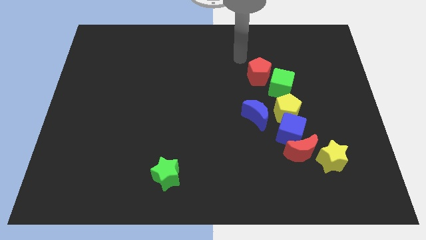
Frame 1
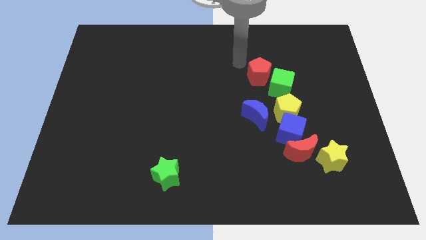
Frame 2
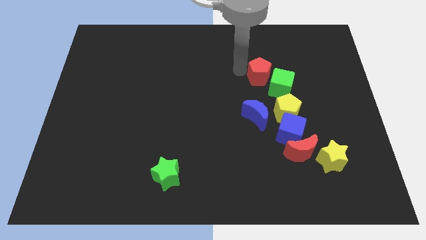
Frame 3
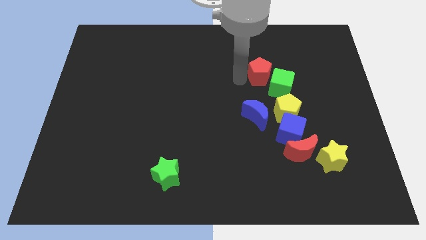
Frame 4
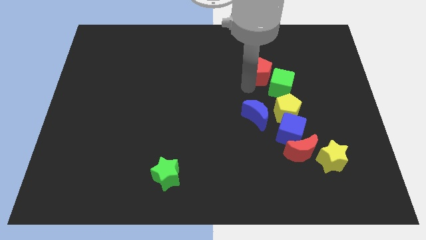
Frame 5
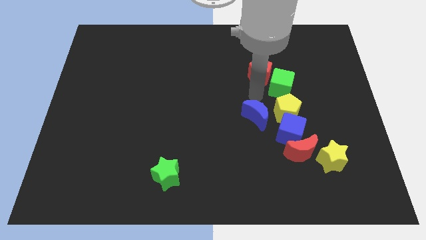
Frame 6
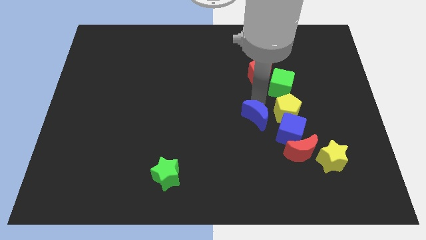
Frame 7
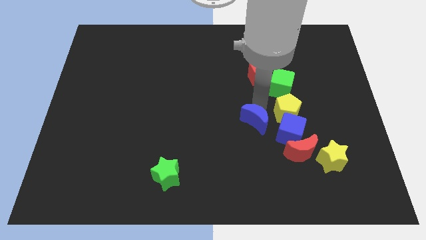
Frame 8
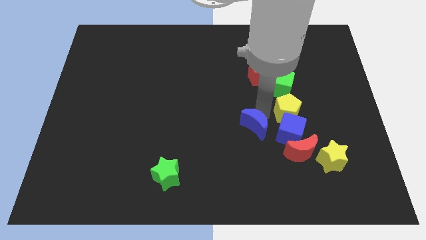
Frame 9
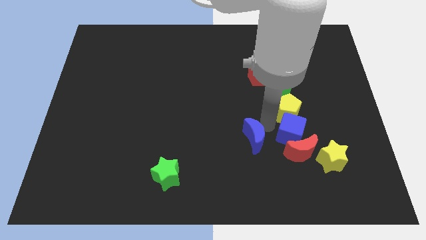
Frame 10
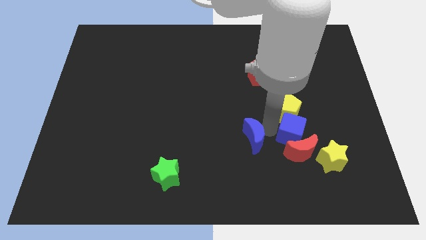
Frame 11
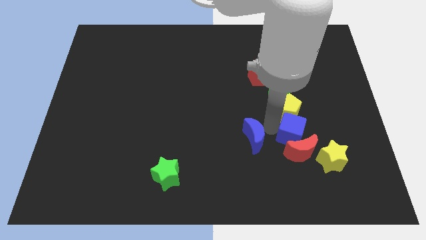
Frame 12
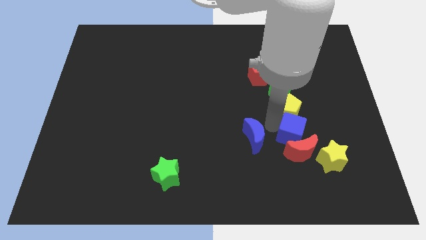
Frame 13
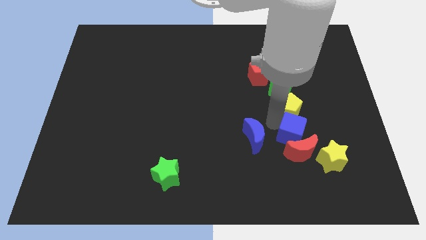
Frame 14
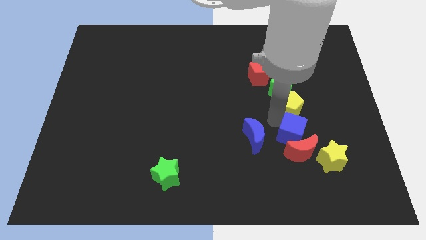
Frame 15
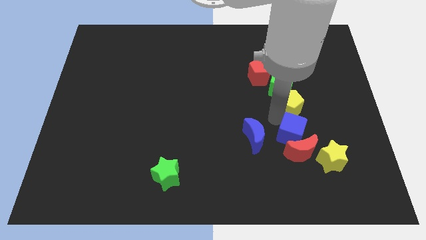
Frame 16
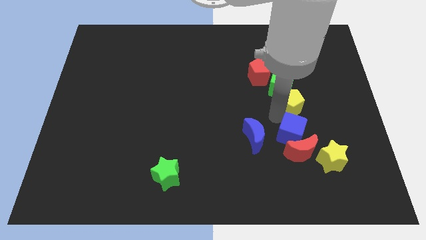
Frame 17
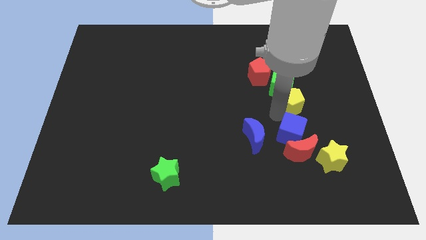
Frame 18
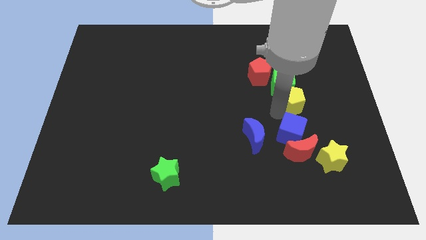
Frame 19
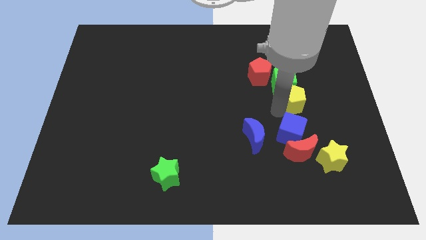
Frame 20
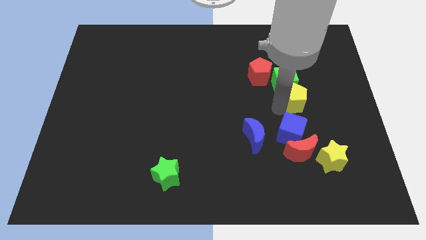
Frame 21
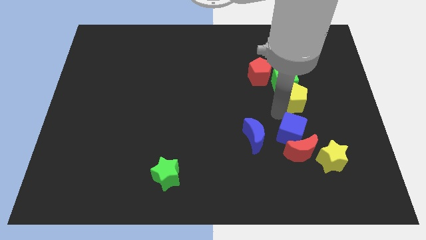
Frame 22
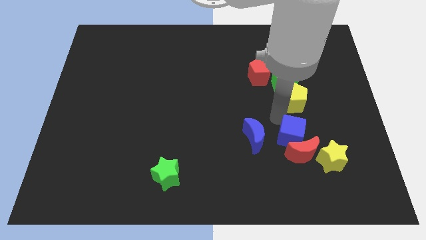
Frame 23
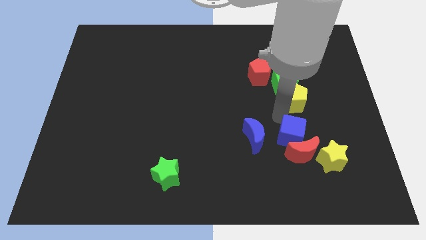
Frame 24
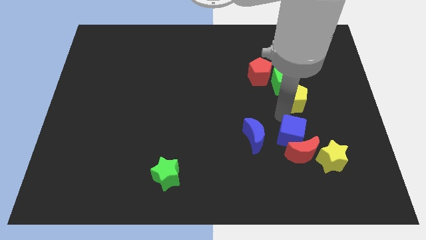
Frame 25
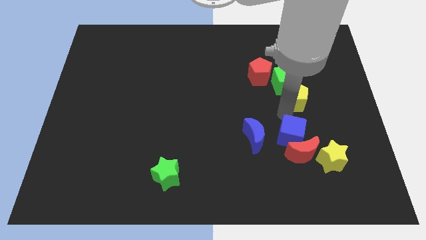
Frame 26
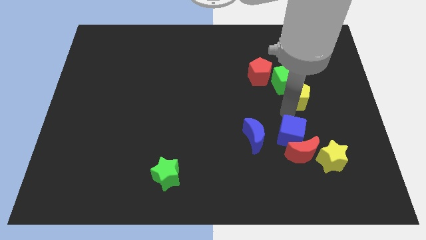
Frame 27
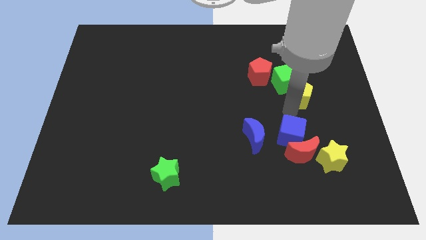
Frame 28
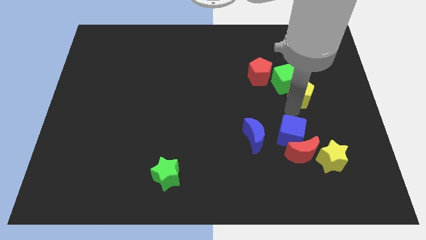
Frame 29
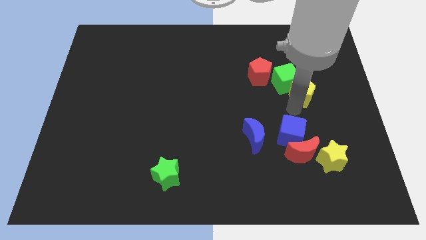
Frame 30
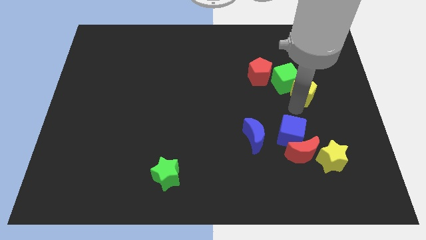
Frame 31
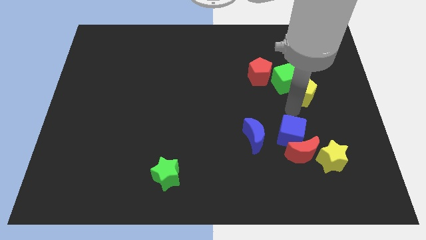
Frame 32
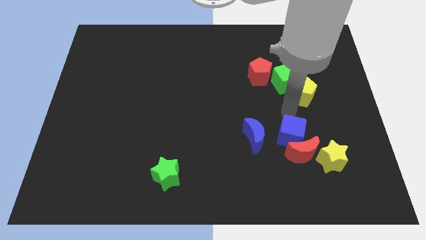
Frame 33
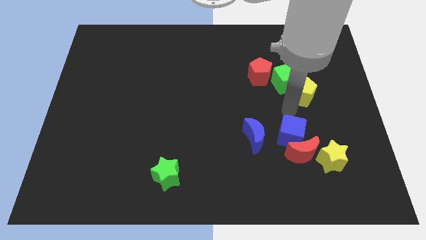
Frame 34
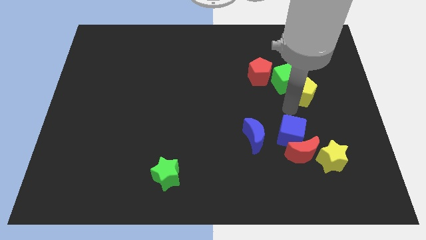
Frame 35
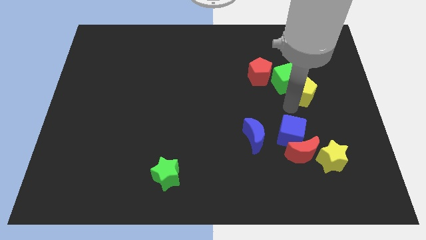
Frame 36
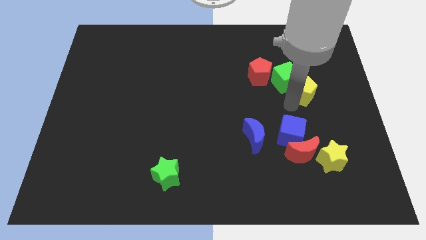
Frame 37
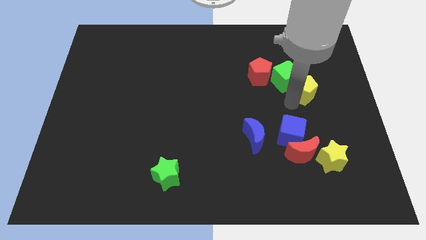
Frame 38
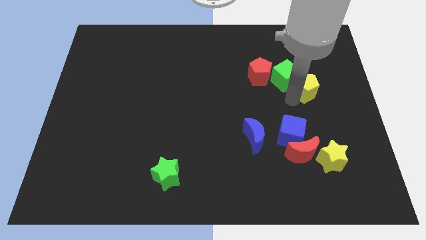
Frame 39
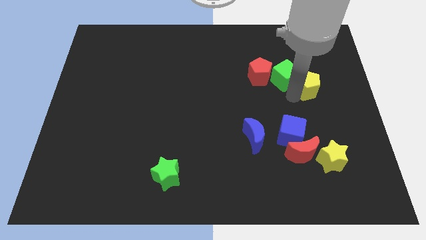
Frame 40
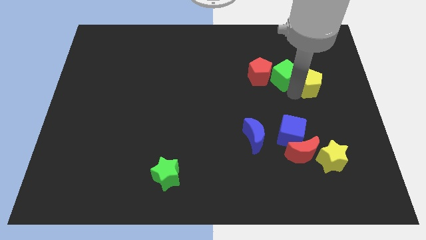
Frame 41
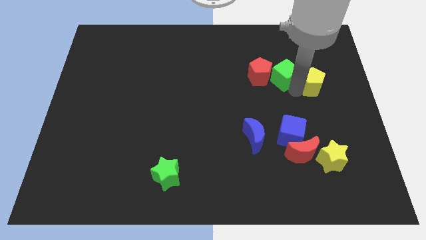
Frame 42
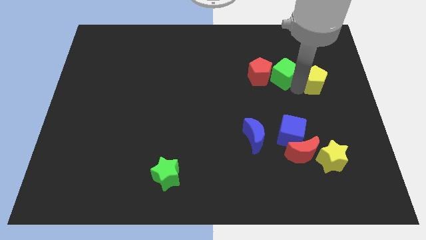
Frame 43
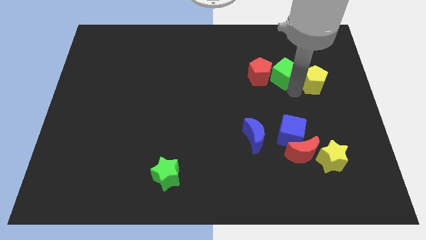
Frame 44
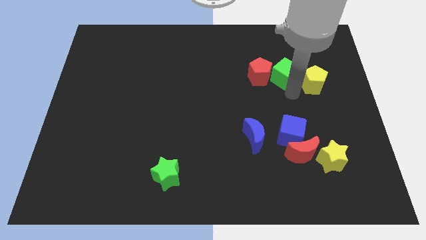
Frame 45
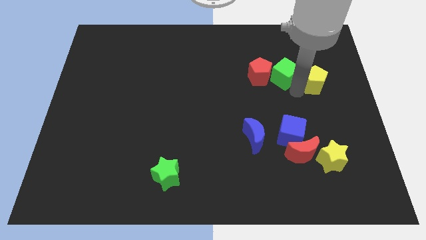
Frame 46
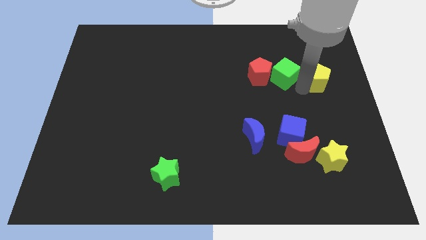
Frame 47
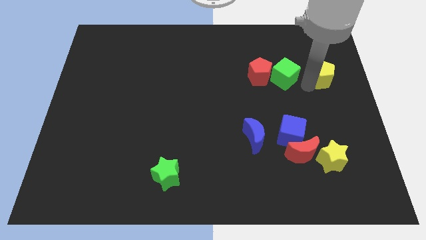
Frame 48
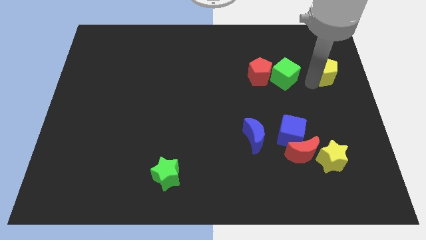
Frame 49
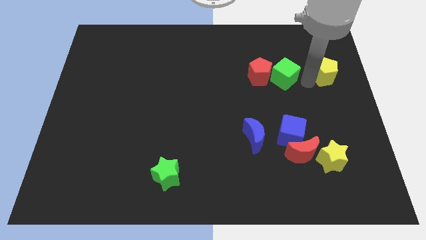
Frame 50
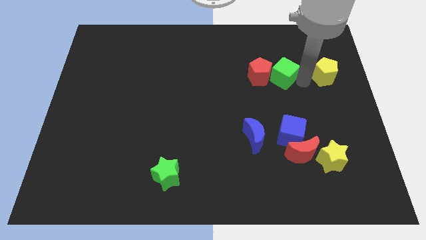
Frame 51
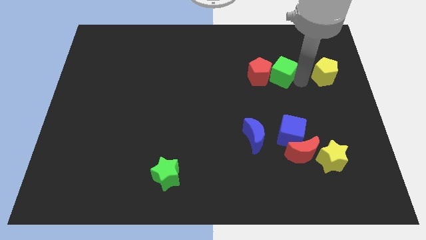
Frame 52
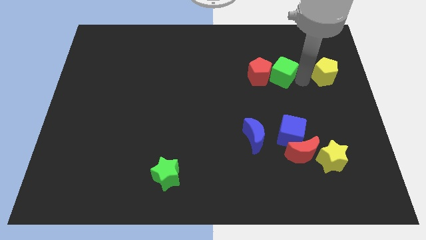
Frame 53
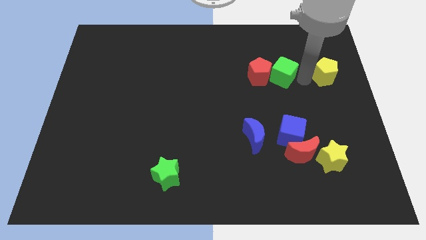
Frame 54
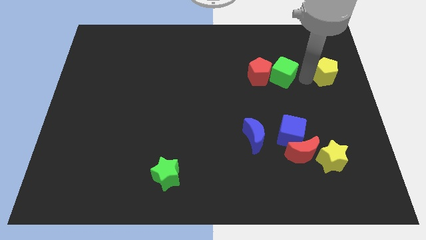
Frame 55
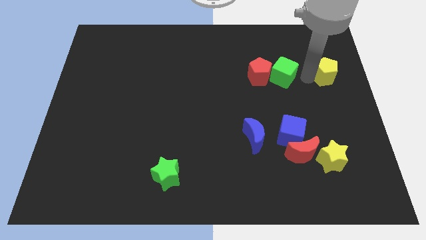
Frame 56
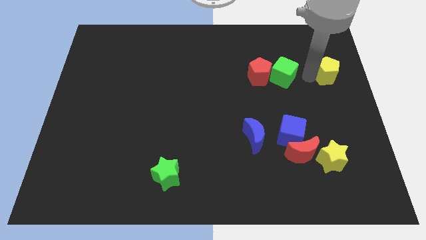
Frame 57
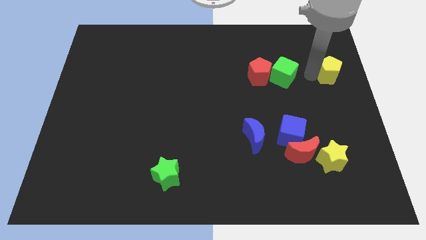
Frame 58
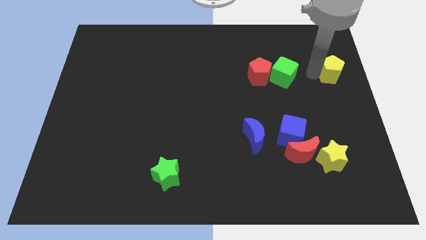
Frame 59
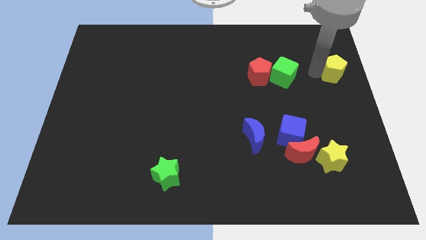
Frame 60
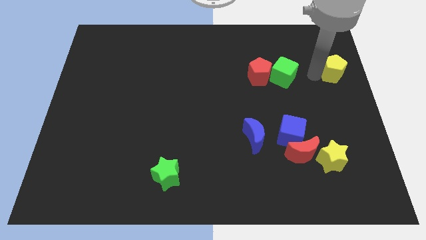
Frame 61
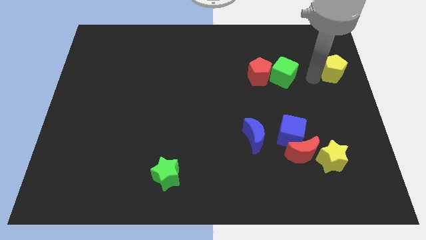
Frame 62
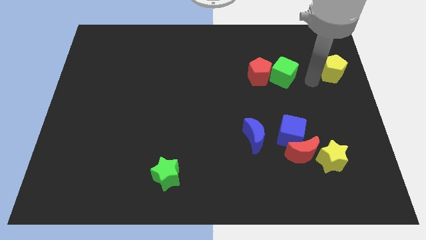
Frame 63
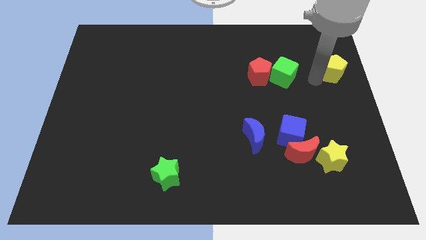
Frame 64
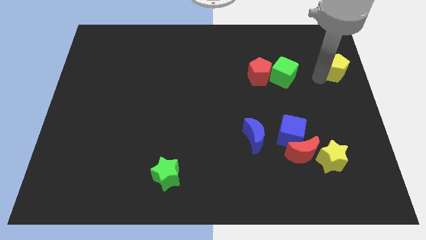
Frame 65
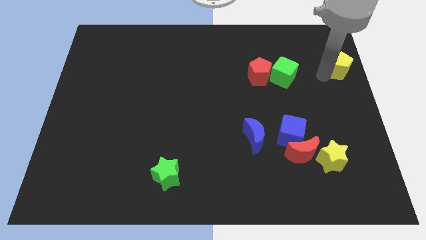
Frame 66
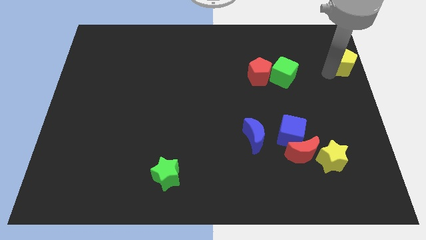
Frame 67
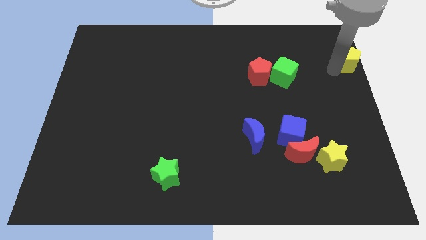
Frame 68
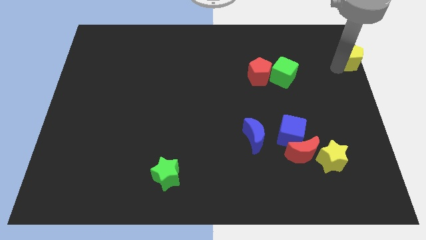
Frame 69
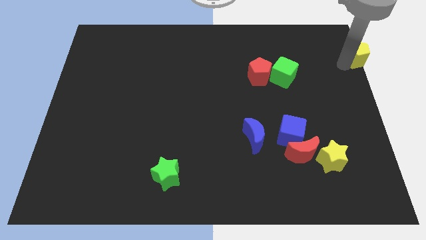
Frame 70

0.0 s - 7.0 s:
put the yellow pentagon to the upper right corner
